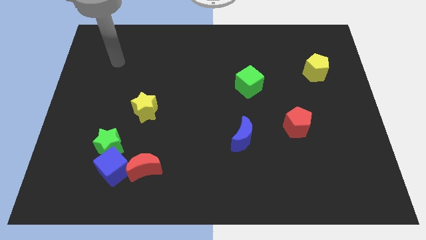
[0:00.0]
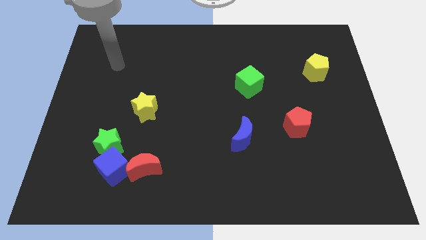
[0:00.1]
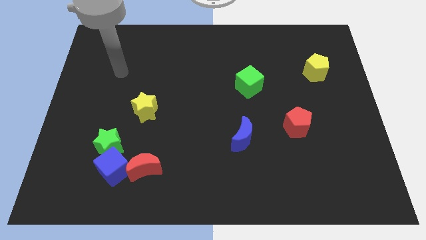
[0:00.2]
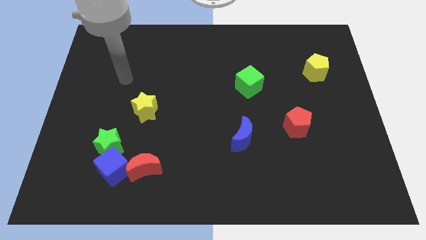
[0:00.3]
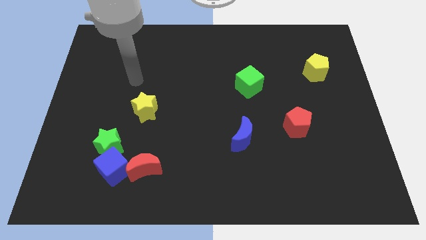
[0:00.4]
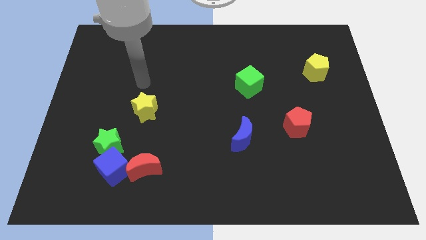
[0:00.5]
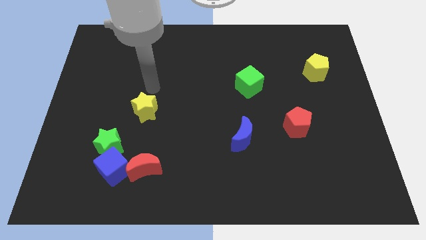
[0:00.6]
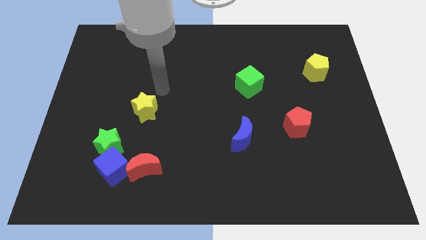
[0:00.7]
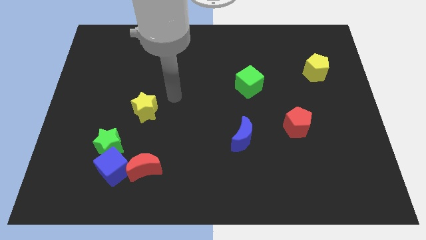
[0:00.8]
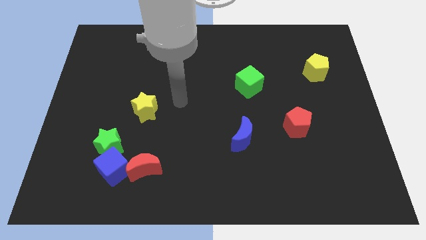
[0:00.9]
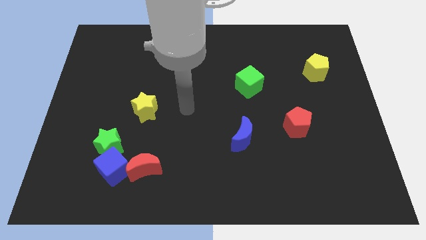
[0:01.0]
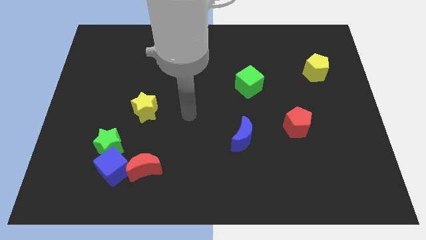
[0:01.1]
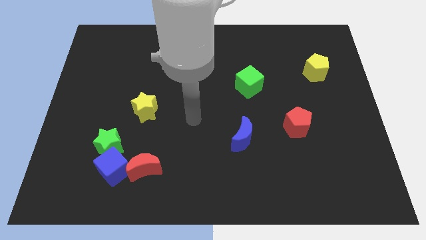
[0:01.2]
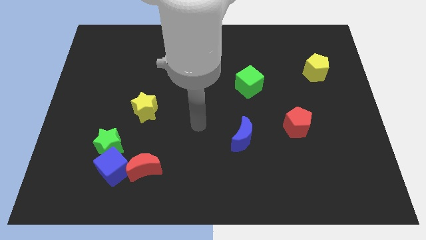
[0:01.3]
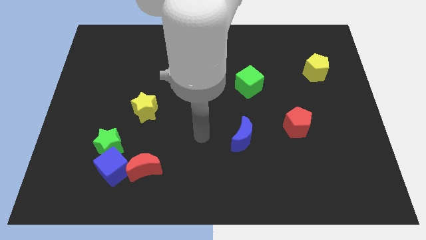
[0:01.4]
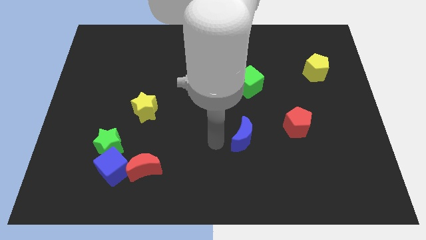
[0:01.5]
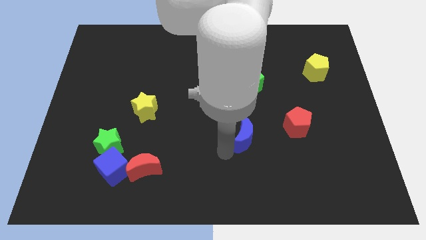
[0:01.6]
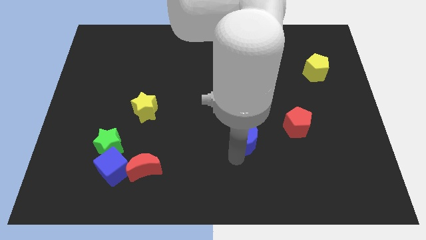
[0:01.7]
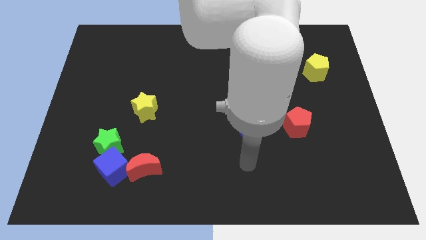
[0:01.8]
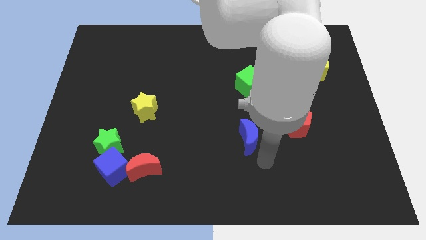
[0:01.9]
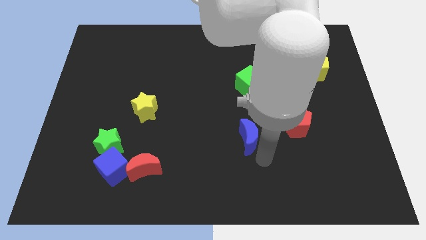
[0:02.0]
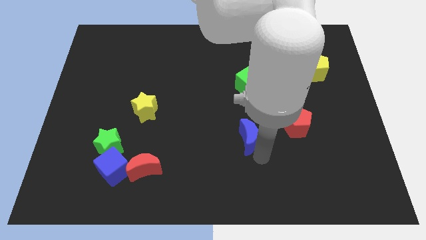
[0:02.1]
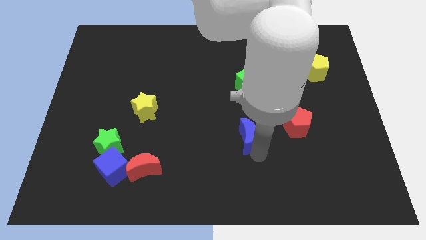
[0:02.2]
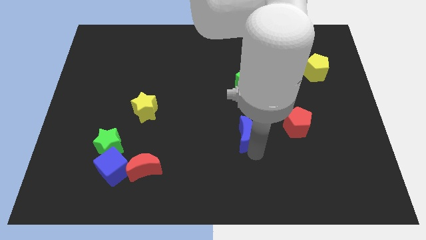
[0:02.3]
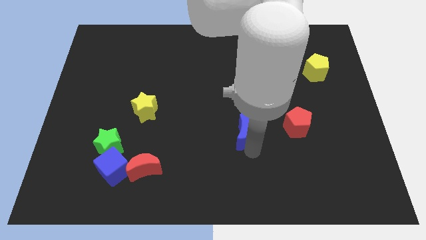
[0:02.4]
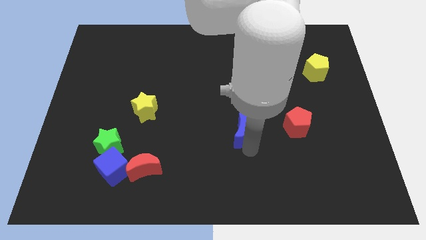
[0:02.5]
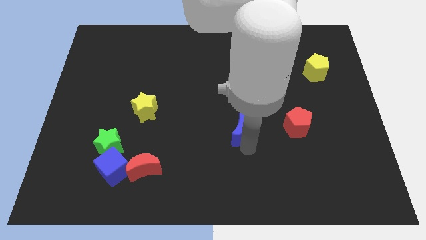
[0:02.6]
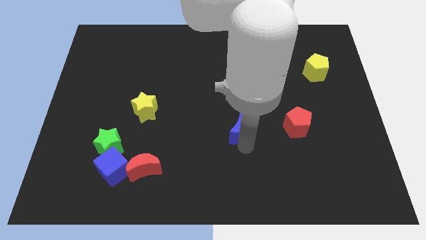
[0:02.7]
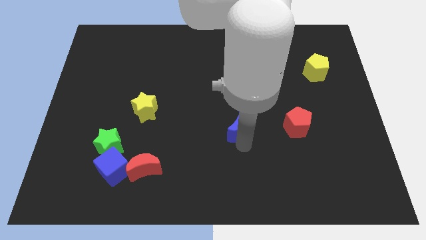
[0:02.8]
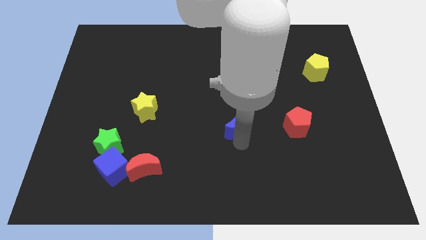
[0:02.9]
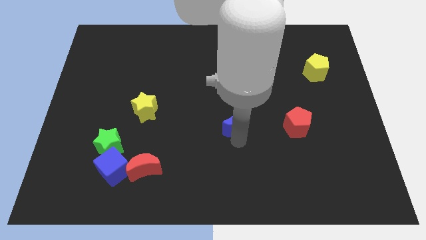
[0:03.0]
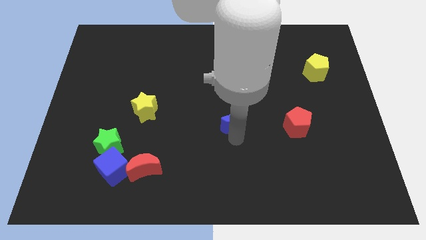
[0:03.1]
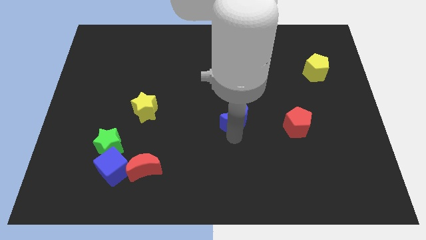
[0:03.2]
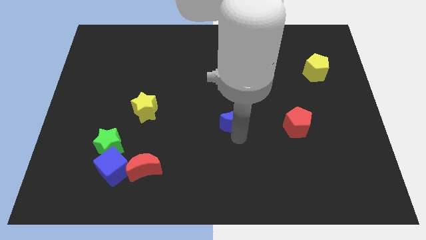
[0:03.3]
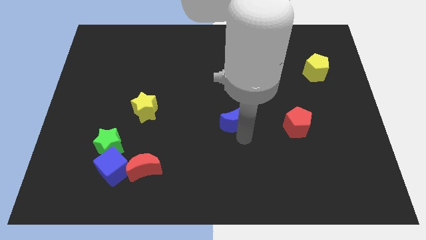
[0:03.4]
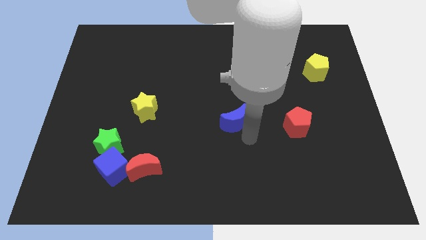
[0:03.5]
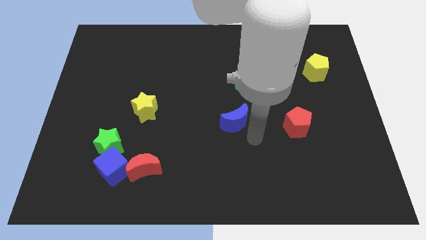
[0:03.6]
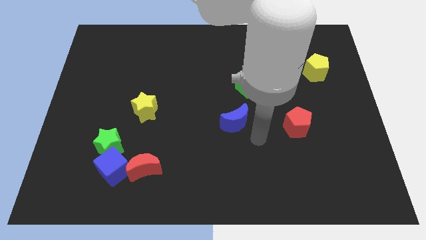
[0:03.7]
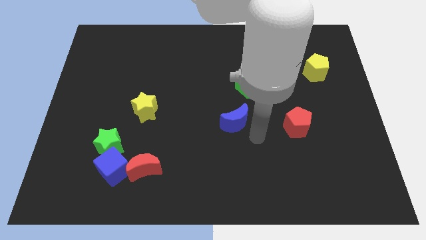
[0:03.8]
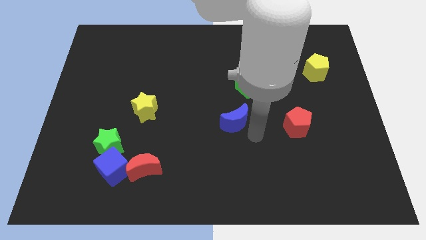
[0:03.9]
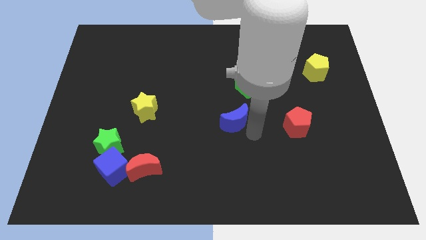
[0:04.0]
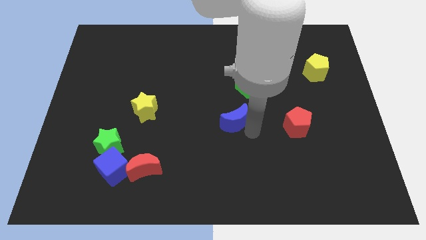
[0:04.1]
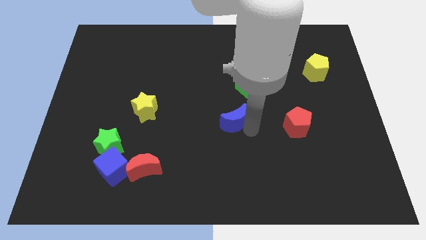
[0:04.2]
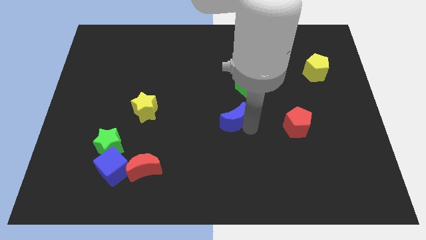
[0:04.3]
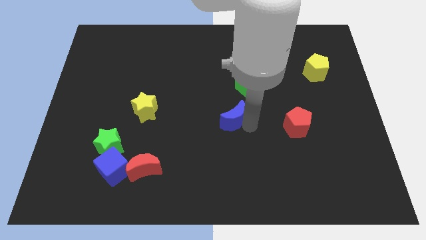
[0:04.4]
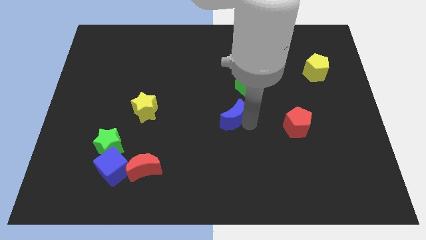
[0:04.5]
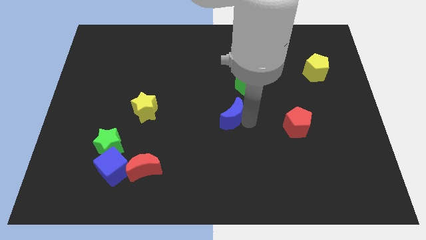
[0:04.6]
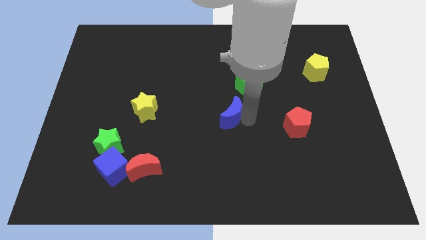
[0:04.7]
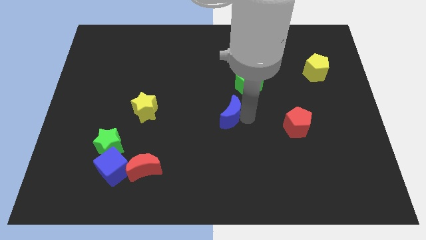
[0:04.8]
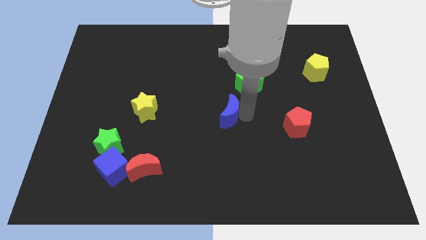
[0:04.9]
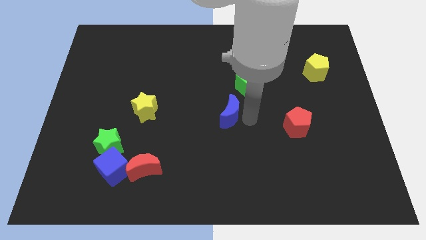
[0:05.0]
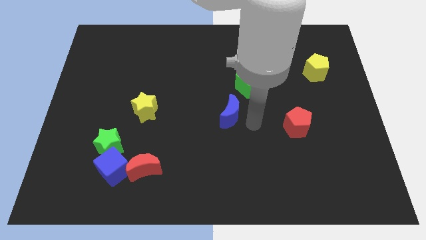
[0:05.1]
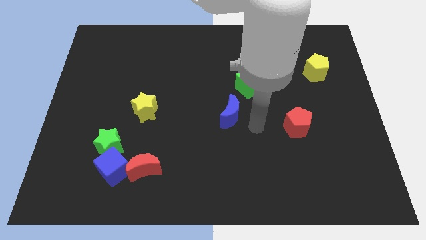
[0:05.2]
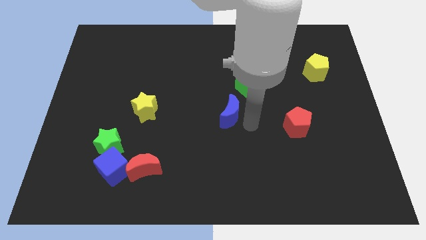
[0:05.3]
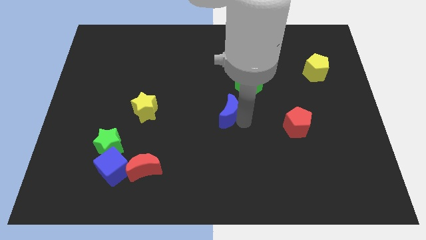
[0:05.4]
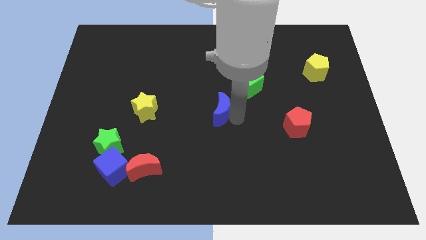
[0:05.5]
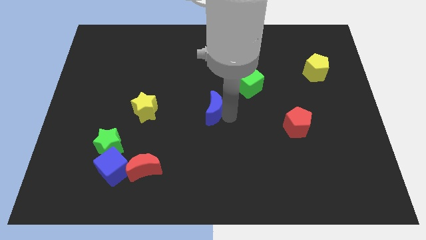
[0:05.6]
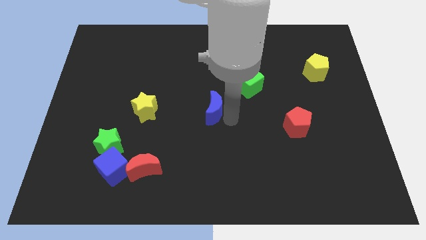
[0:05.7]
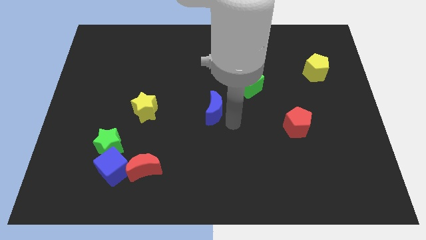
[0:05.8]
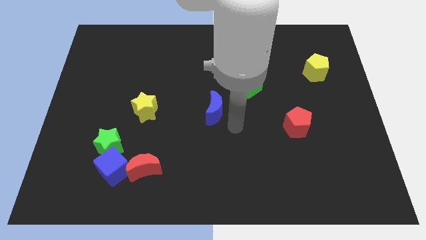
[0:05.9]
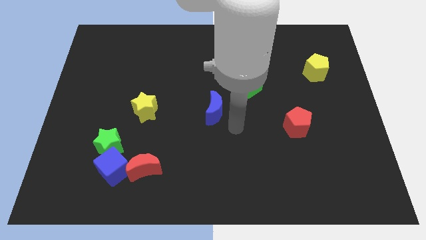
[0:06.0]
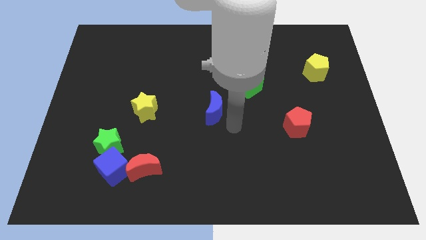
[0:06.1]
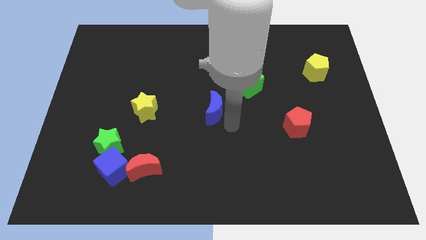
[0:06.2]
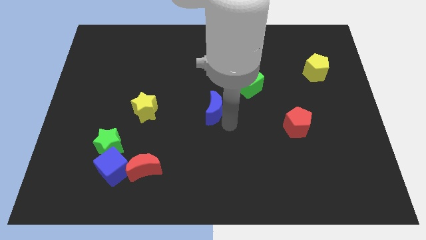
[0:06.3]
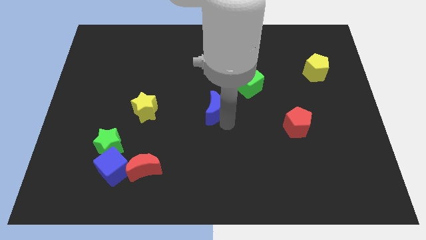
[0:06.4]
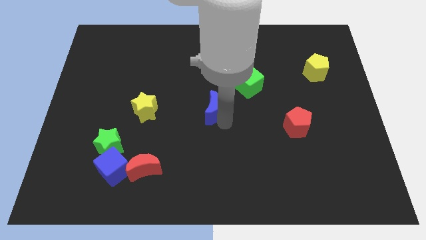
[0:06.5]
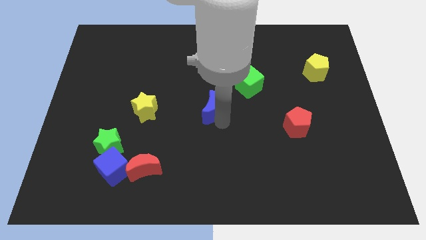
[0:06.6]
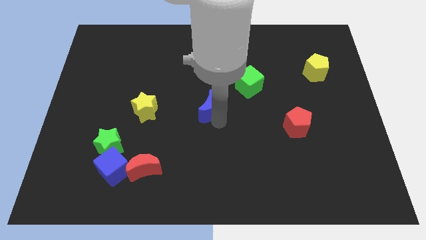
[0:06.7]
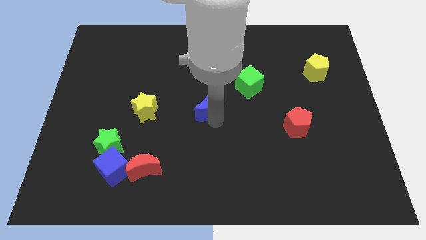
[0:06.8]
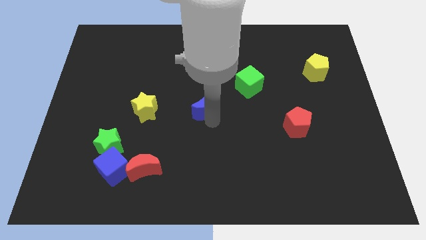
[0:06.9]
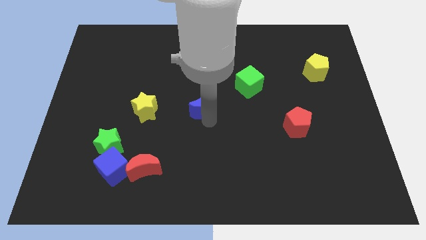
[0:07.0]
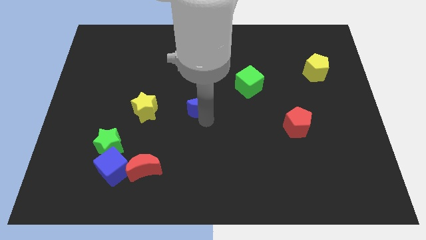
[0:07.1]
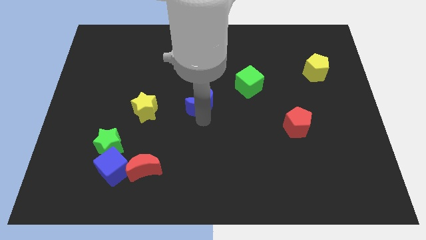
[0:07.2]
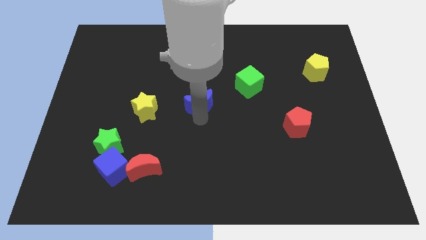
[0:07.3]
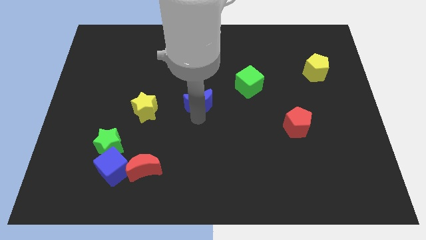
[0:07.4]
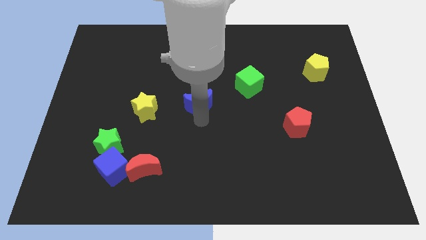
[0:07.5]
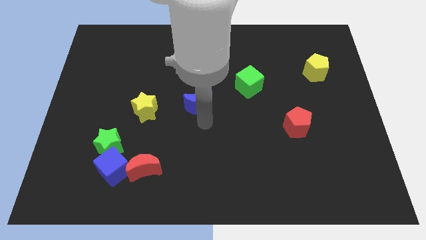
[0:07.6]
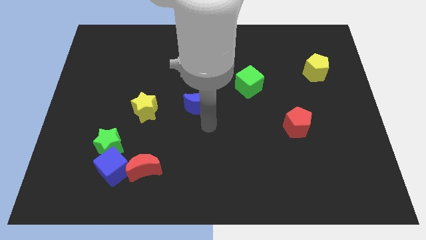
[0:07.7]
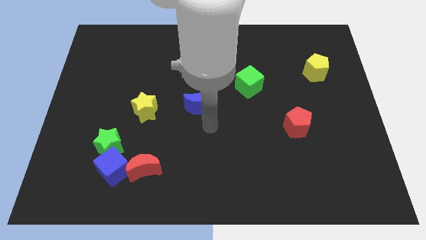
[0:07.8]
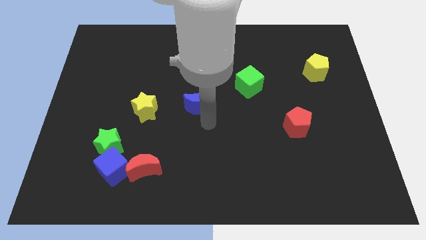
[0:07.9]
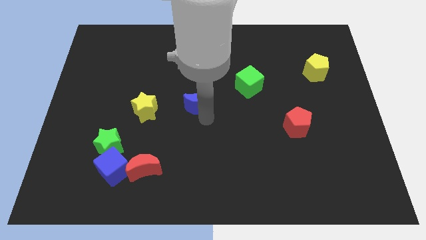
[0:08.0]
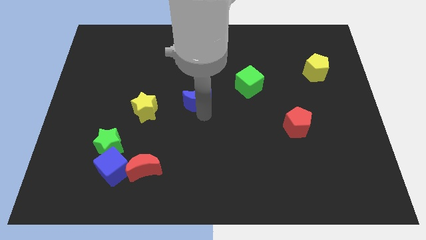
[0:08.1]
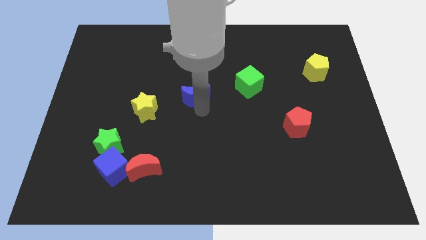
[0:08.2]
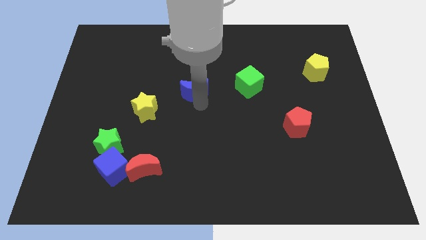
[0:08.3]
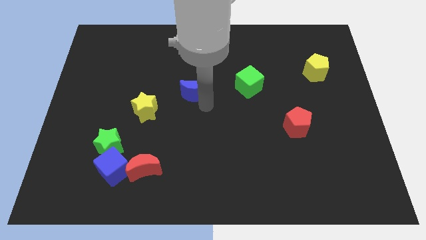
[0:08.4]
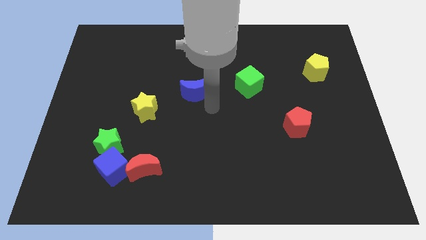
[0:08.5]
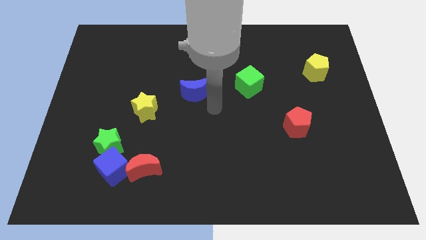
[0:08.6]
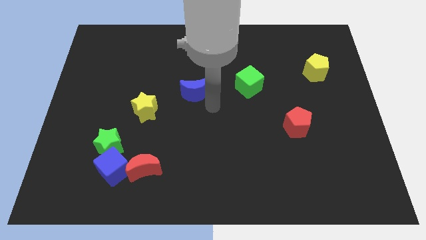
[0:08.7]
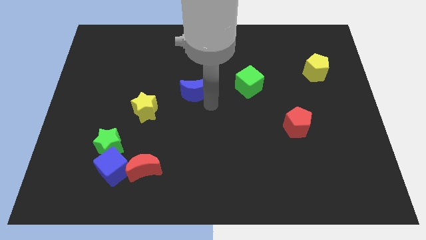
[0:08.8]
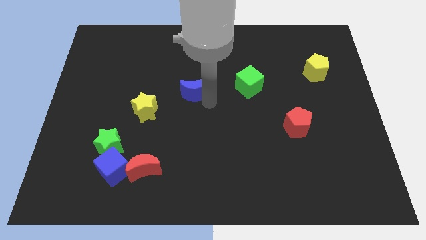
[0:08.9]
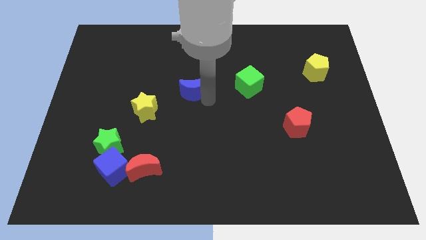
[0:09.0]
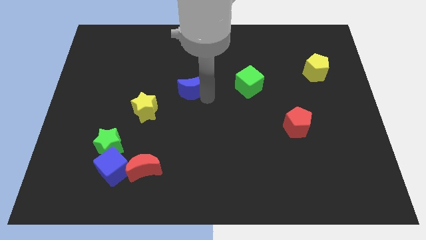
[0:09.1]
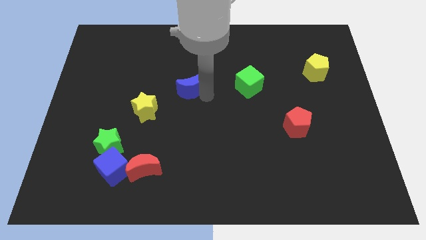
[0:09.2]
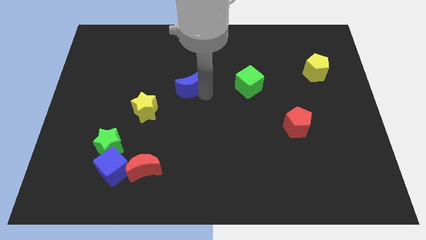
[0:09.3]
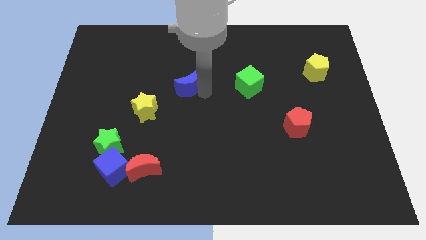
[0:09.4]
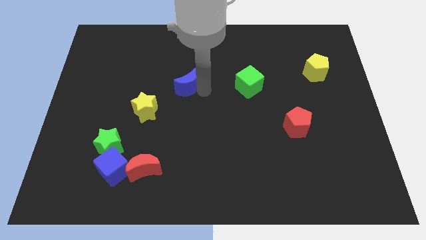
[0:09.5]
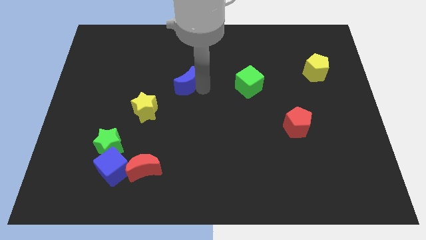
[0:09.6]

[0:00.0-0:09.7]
slide the blue moon up and then left
